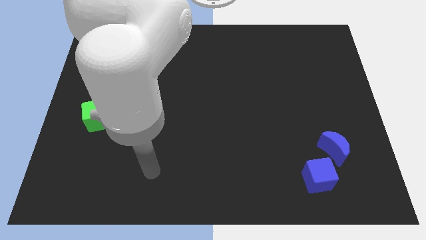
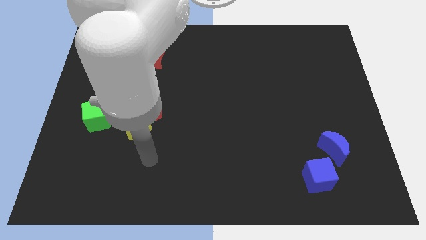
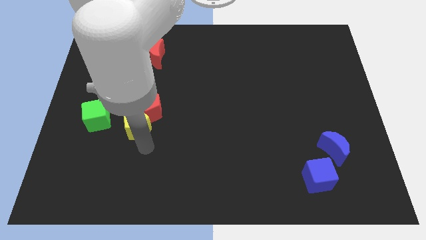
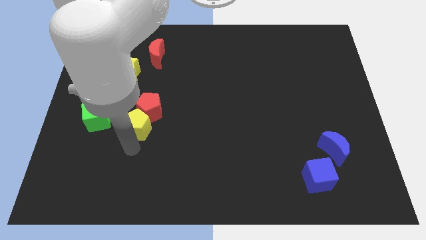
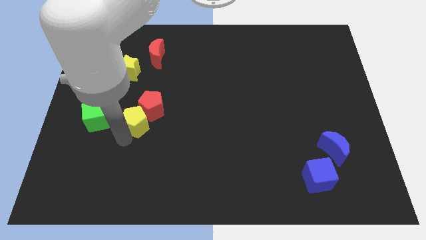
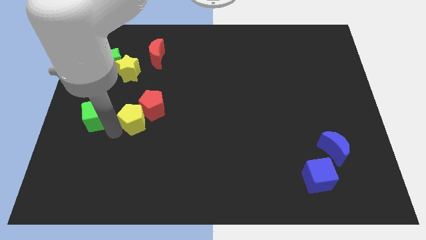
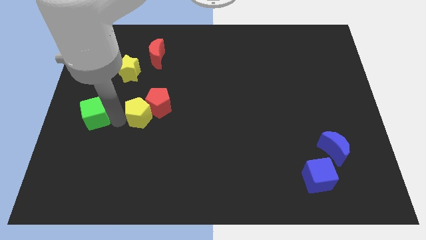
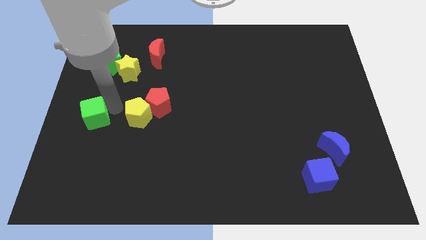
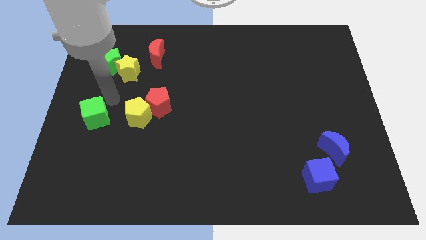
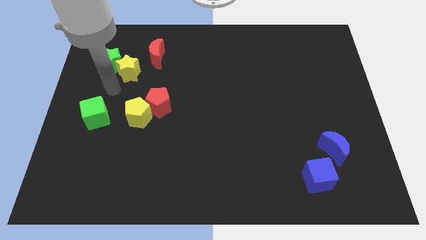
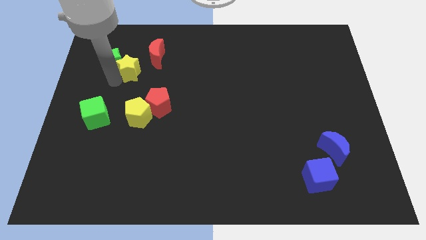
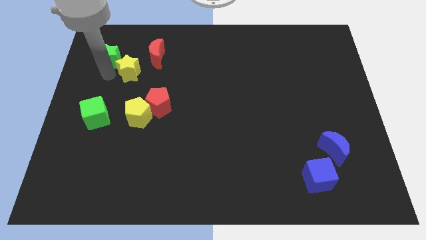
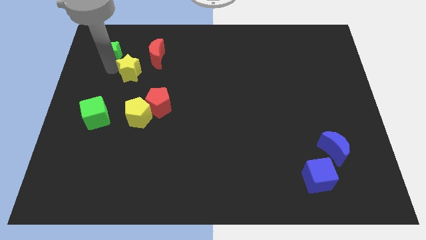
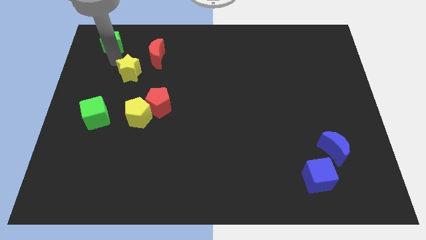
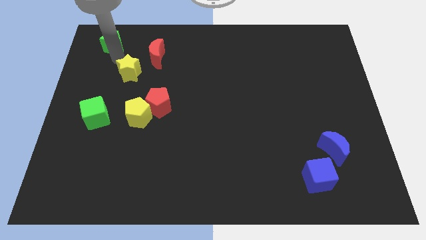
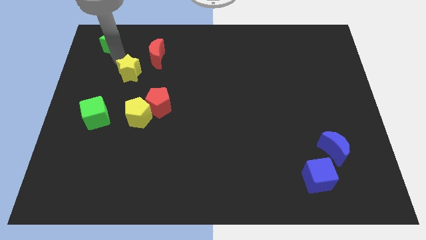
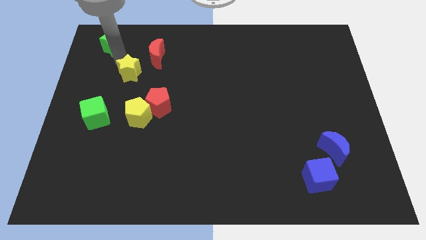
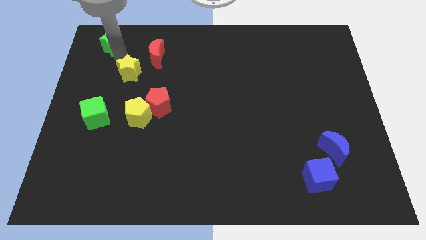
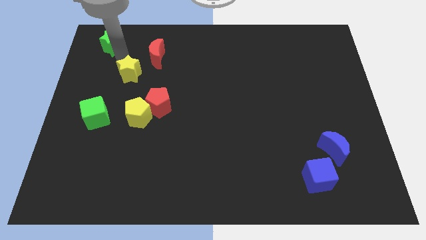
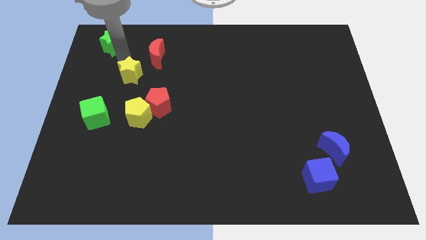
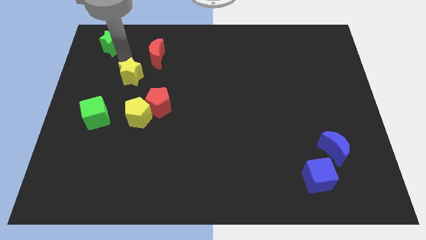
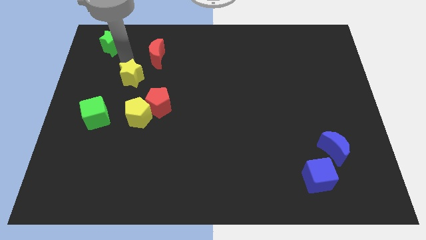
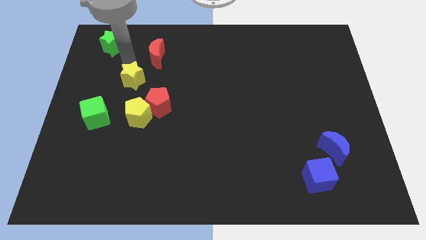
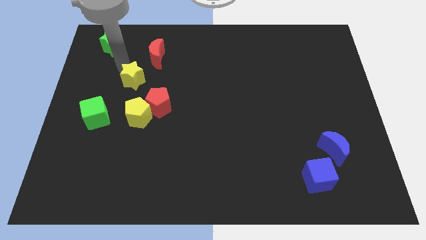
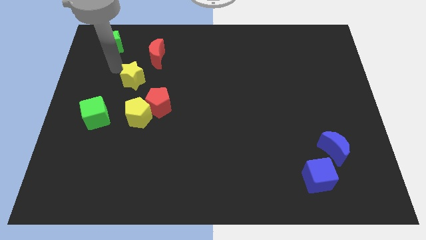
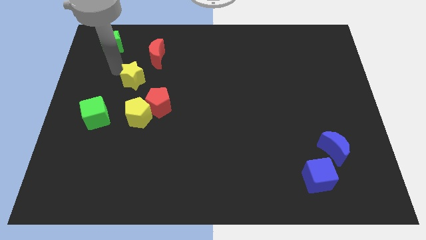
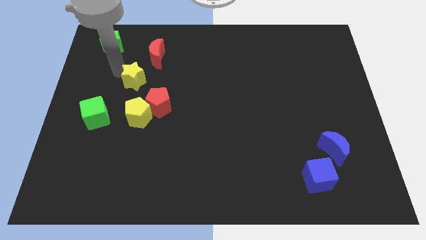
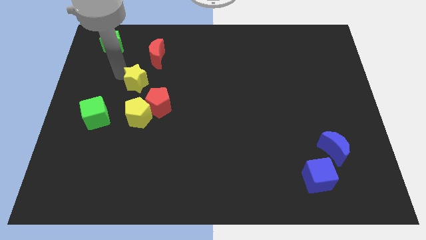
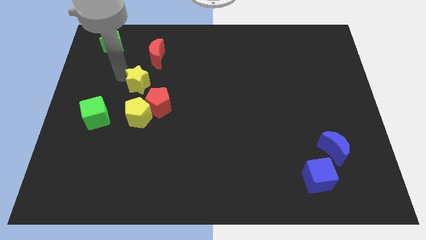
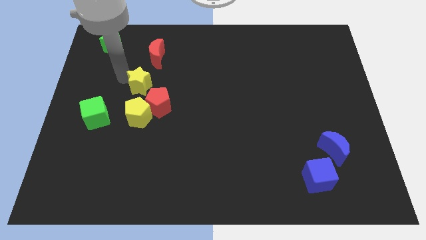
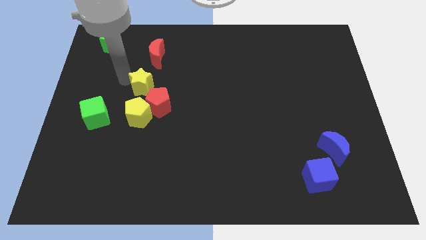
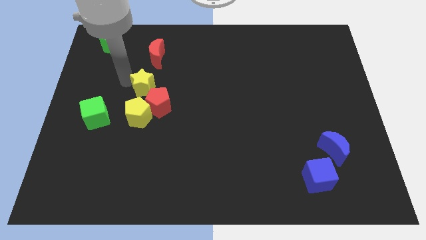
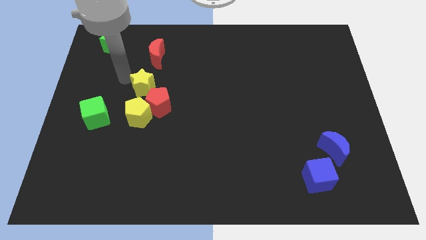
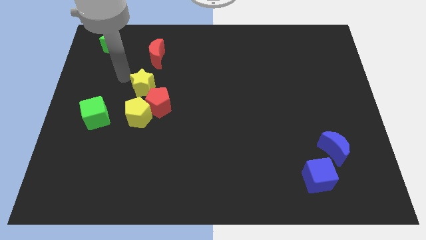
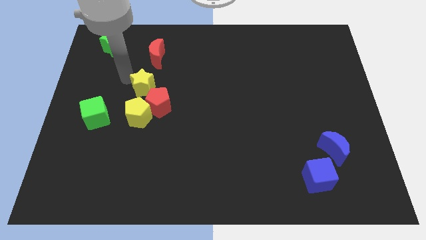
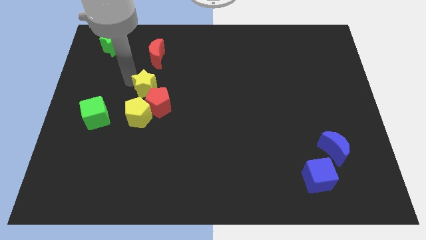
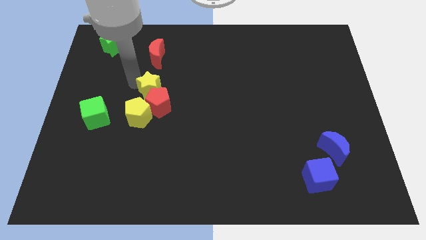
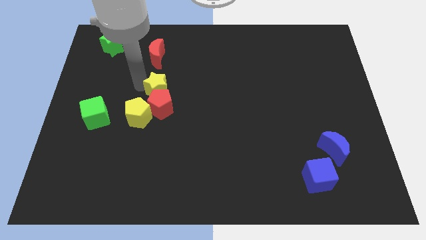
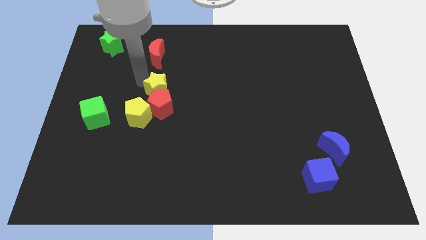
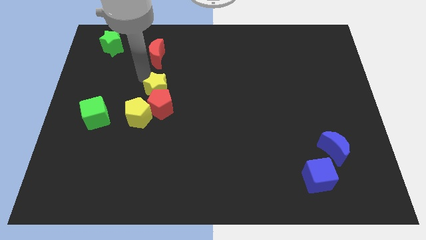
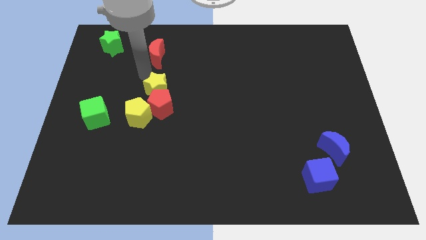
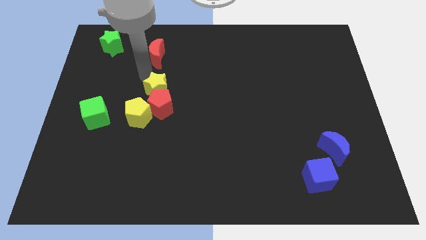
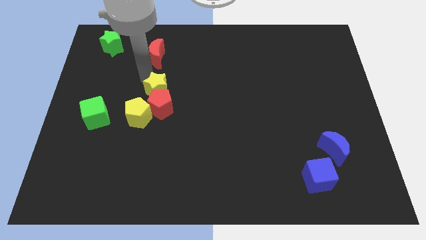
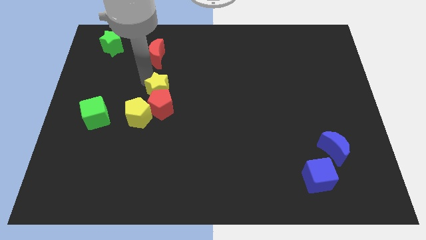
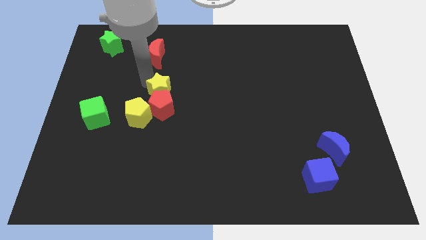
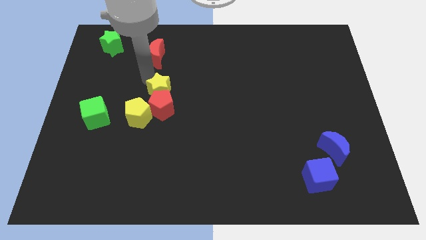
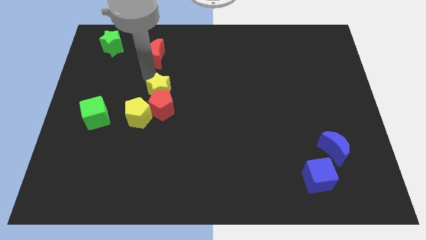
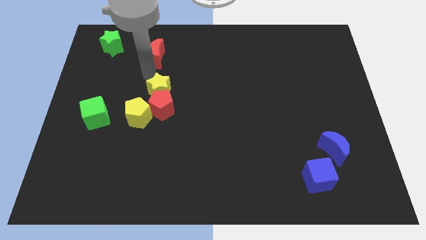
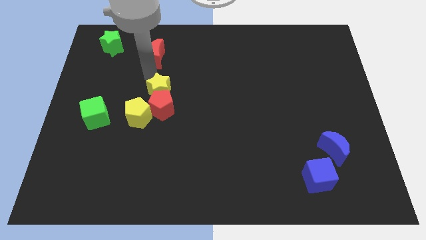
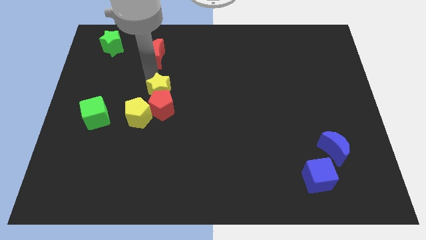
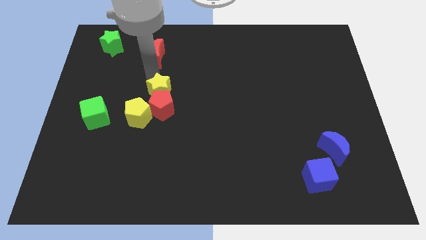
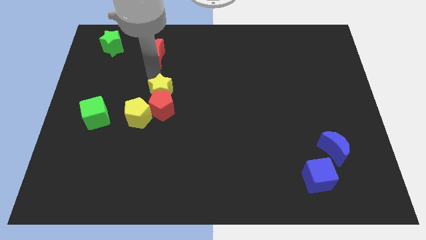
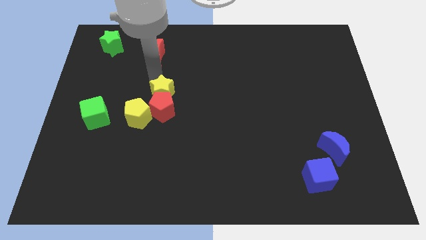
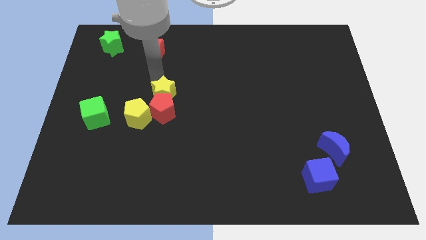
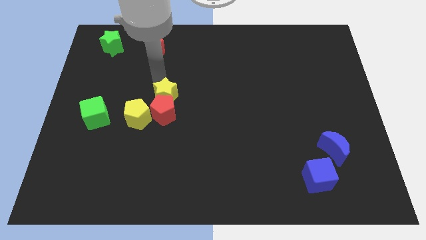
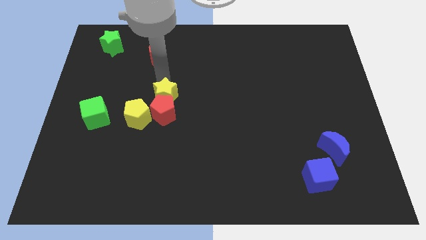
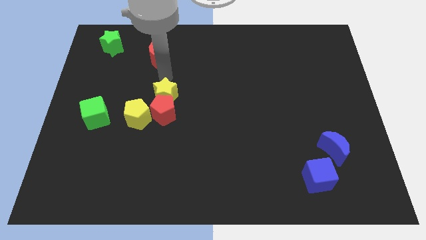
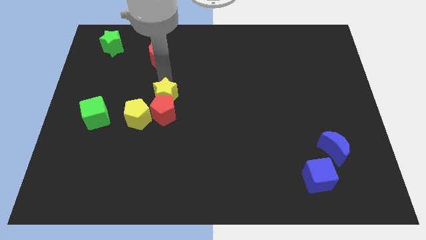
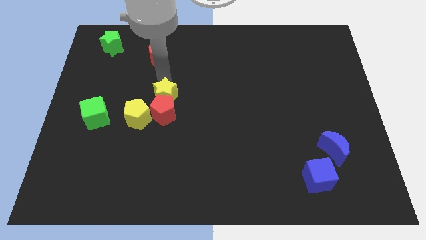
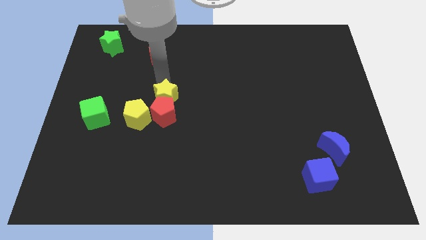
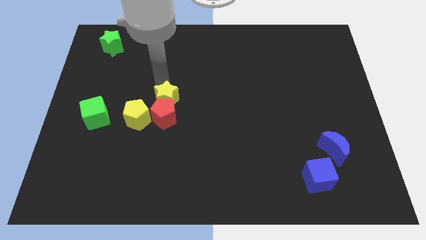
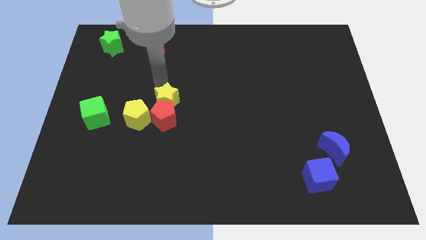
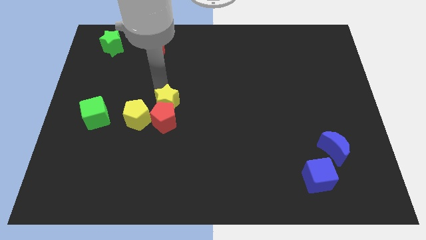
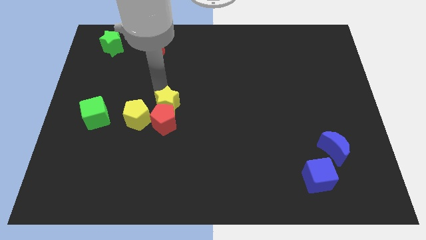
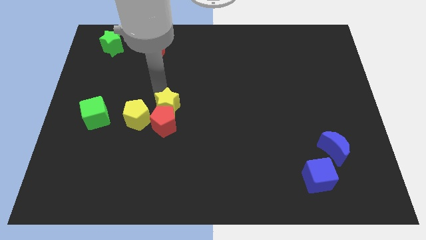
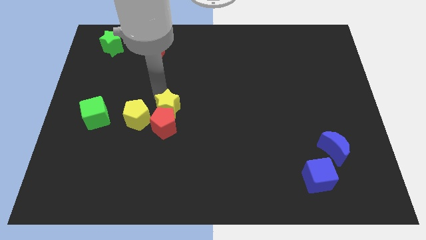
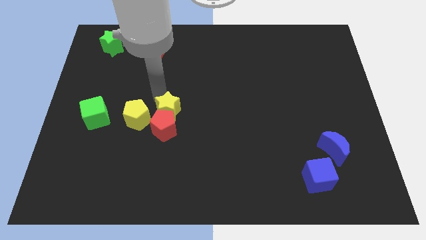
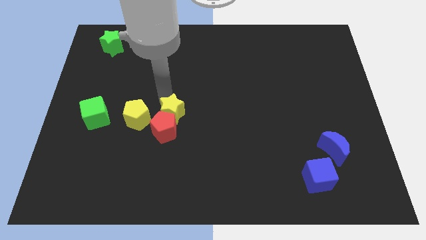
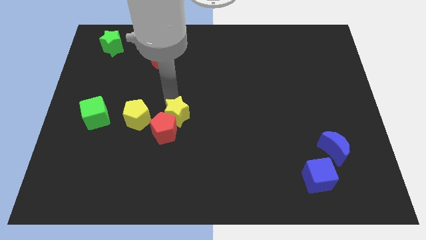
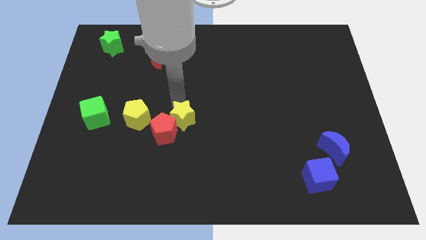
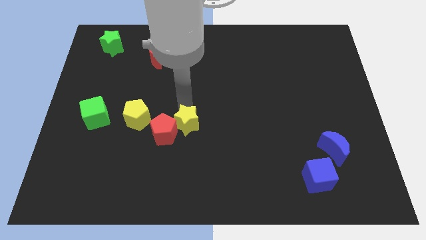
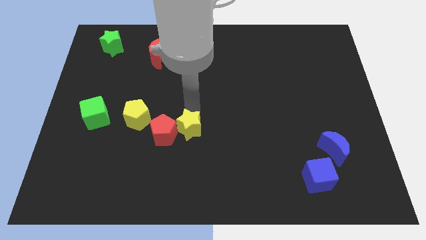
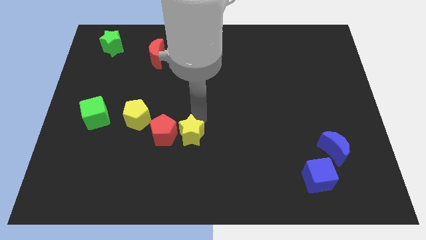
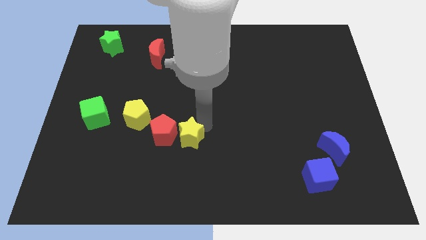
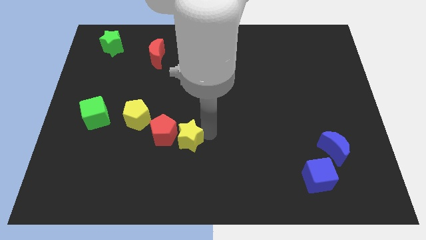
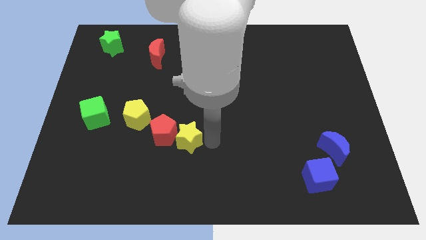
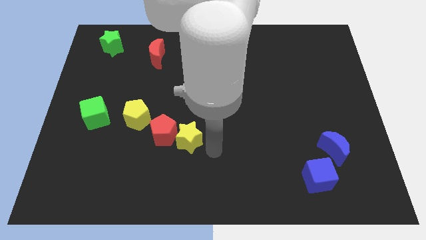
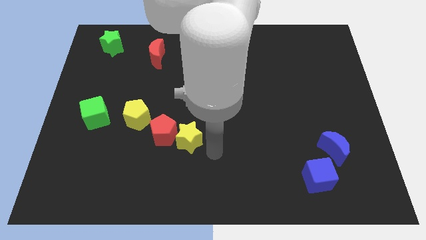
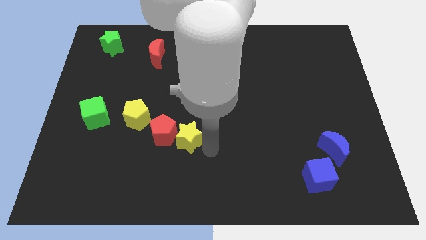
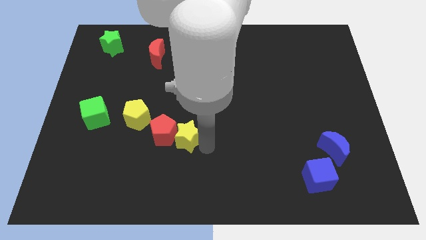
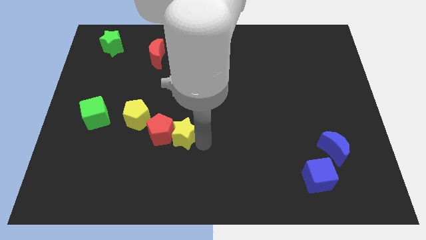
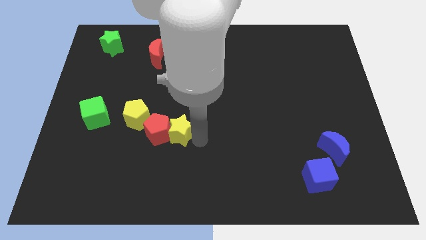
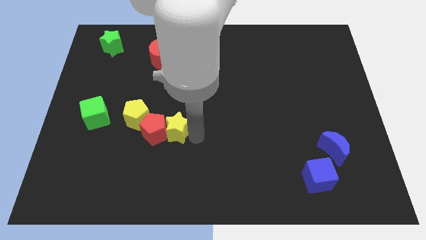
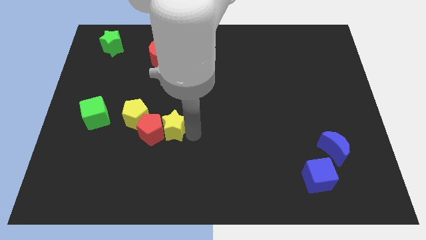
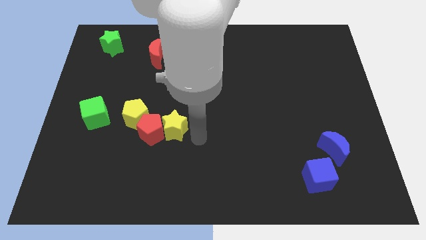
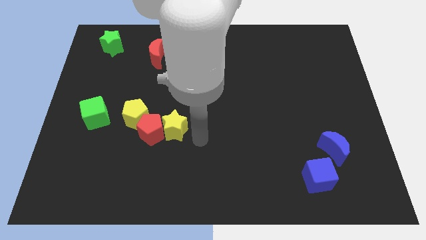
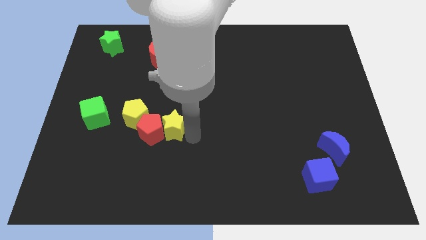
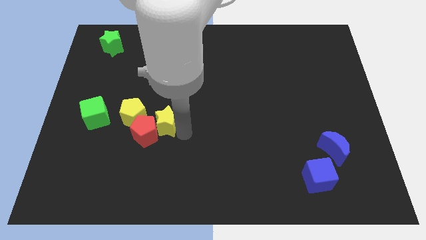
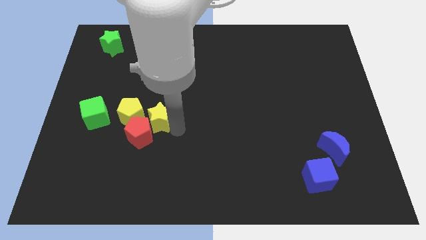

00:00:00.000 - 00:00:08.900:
move the yellow star to the right side of the green cube
